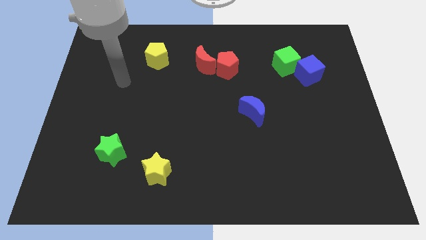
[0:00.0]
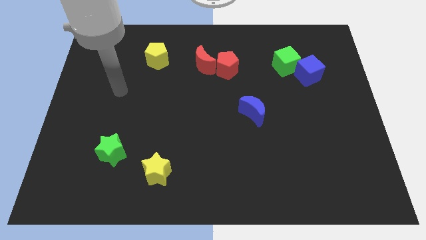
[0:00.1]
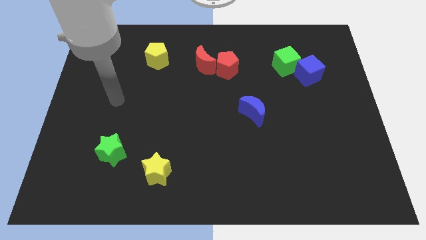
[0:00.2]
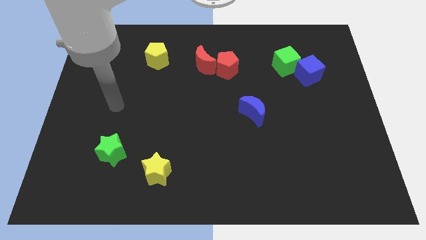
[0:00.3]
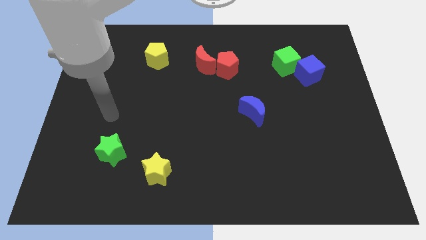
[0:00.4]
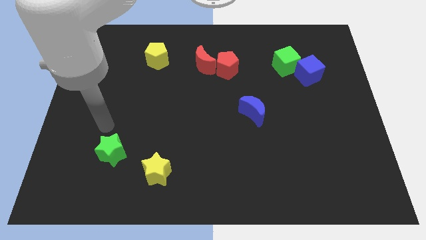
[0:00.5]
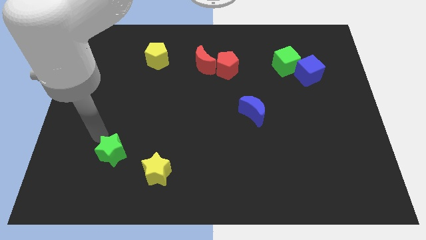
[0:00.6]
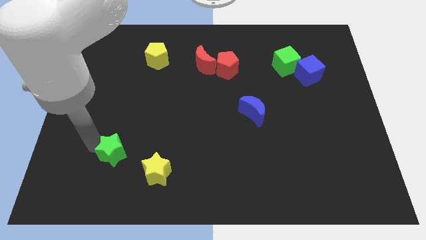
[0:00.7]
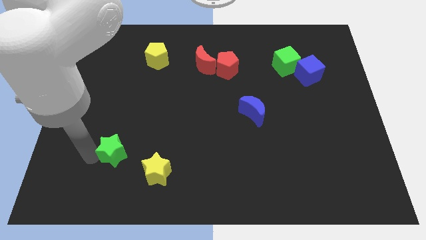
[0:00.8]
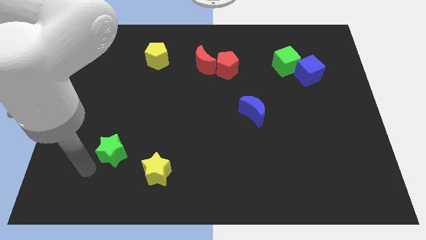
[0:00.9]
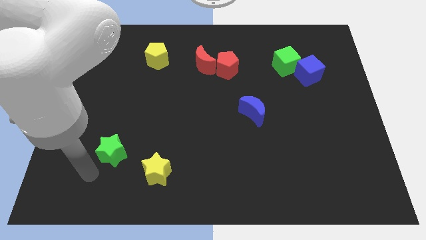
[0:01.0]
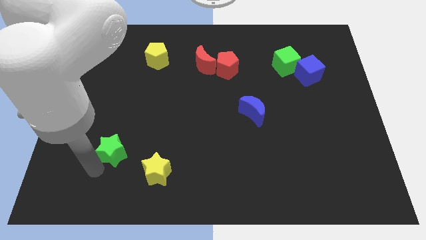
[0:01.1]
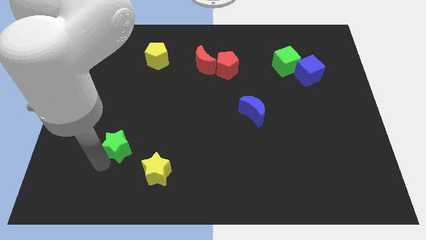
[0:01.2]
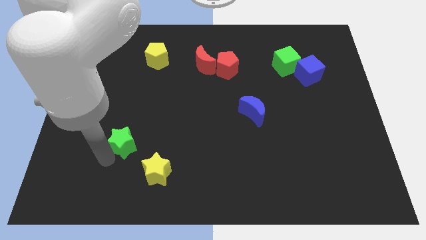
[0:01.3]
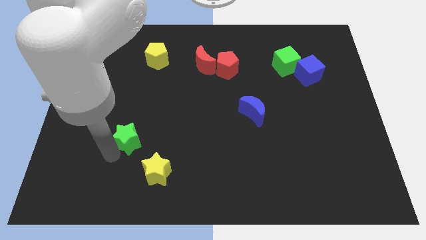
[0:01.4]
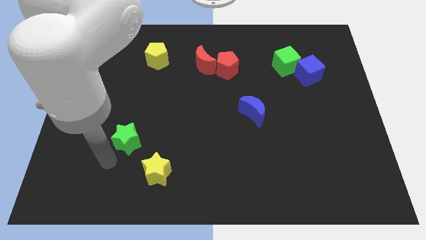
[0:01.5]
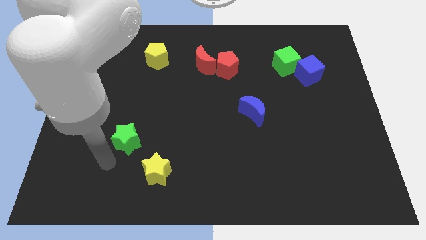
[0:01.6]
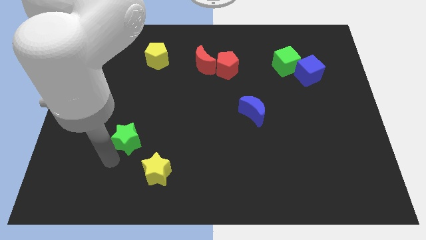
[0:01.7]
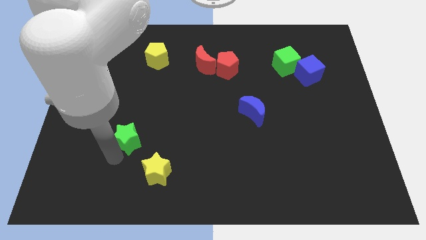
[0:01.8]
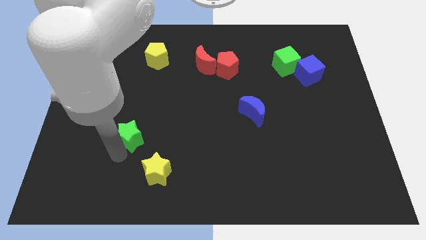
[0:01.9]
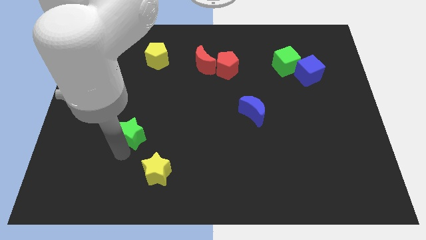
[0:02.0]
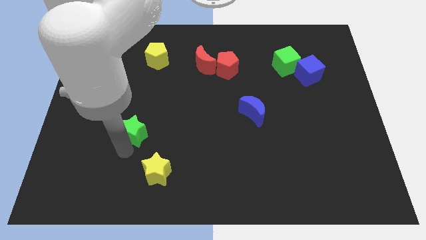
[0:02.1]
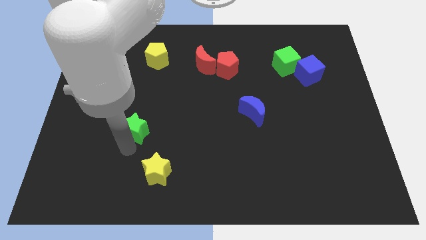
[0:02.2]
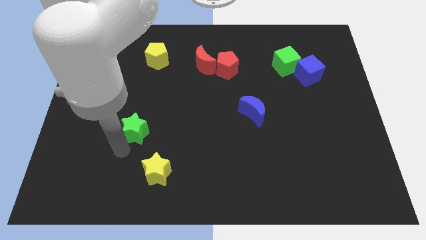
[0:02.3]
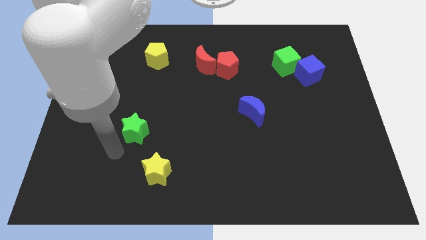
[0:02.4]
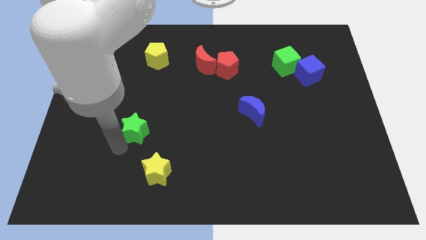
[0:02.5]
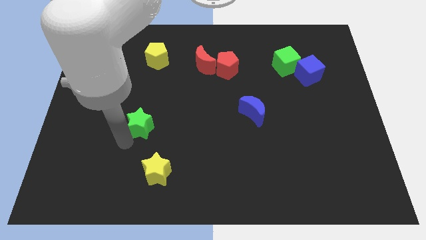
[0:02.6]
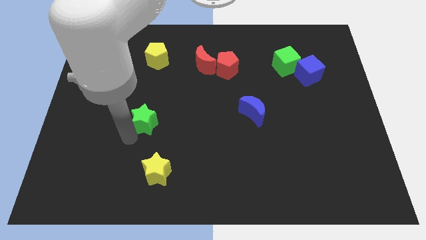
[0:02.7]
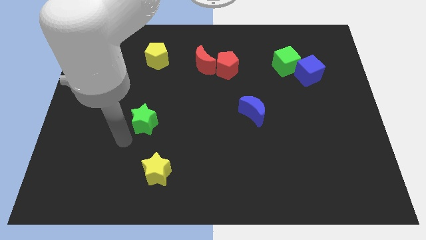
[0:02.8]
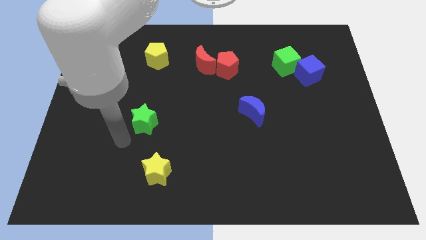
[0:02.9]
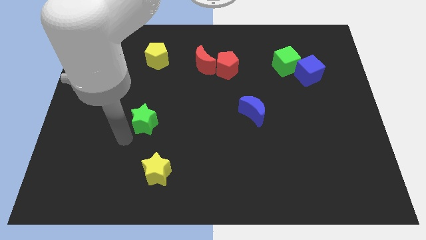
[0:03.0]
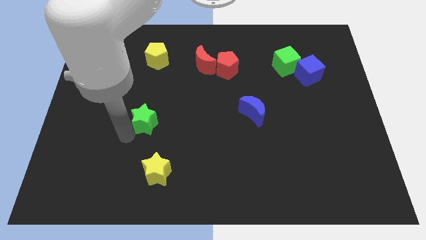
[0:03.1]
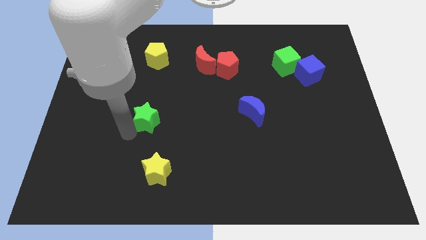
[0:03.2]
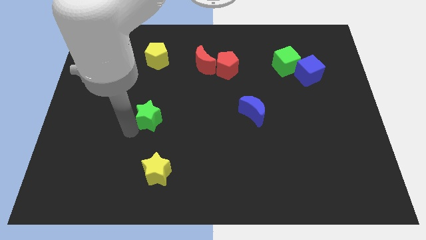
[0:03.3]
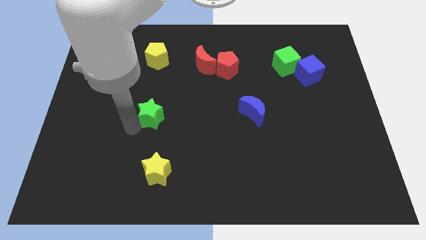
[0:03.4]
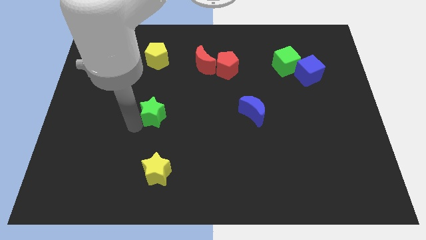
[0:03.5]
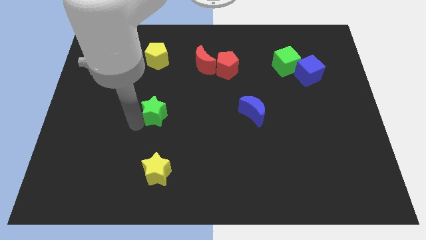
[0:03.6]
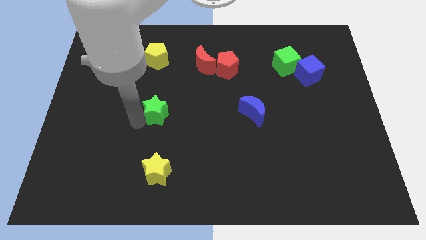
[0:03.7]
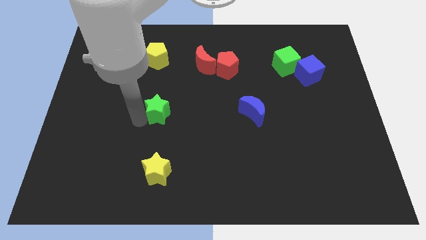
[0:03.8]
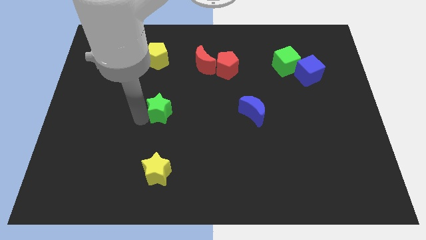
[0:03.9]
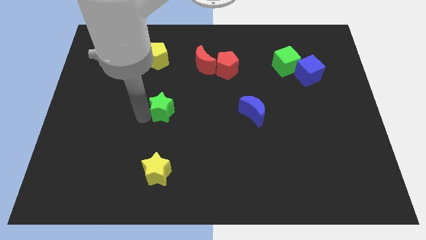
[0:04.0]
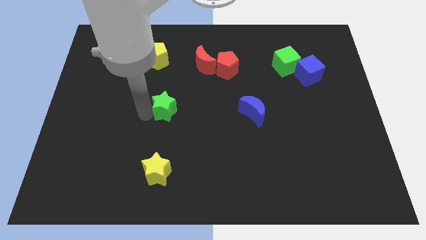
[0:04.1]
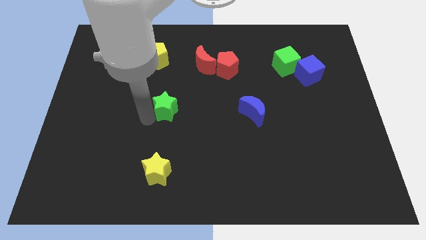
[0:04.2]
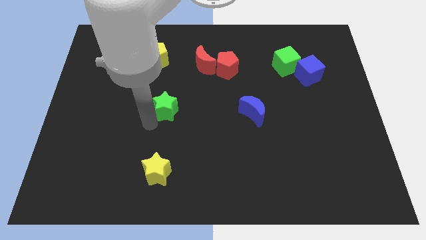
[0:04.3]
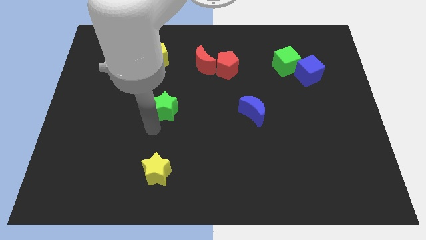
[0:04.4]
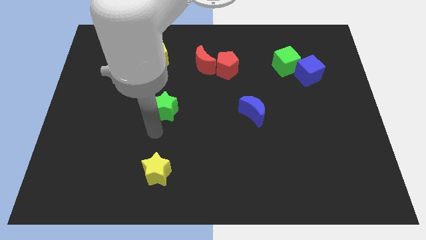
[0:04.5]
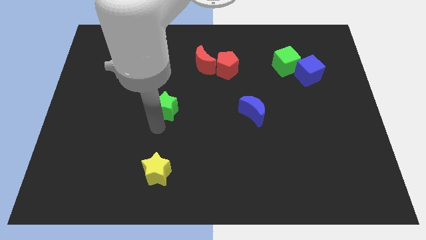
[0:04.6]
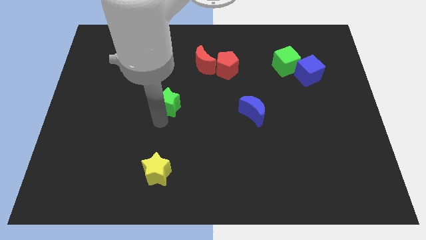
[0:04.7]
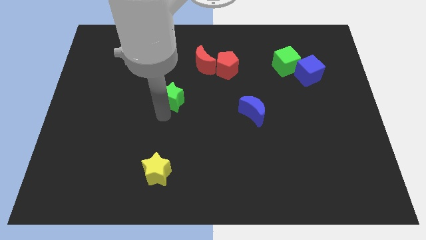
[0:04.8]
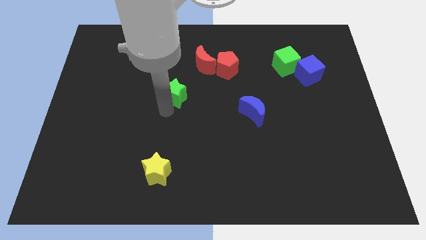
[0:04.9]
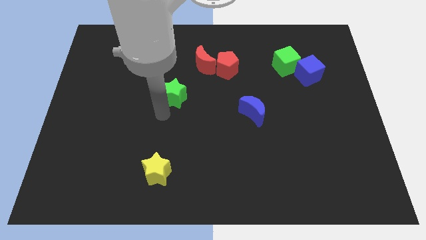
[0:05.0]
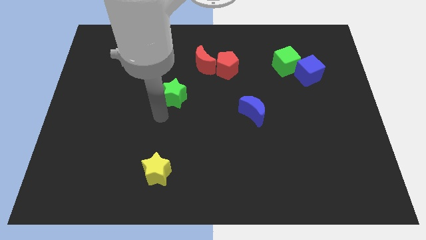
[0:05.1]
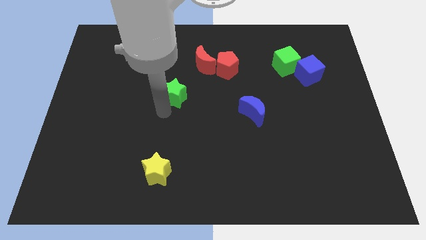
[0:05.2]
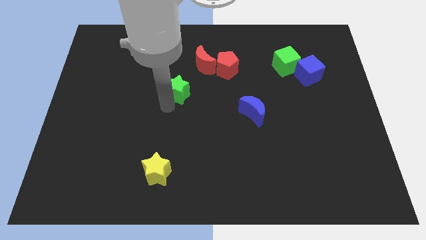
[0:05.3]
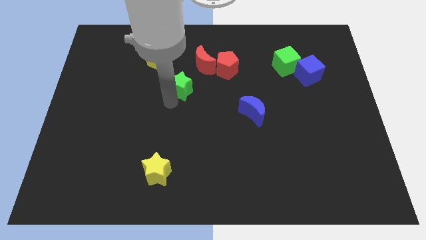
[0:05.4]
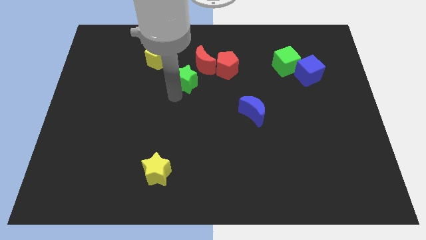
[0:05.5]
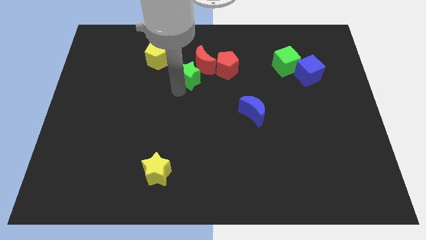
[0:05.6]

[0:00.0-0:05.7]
put the green star close to the red moon
